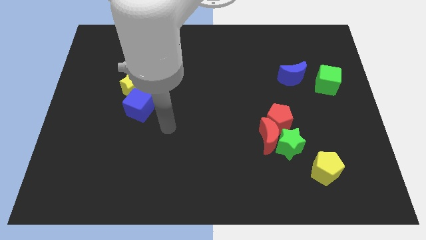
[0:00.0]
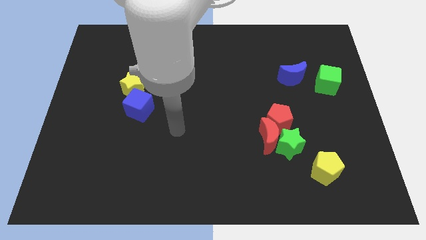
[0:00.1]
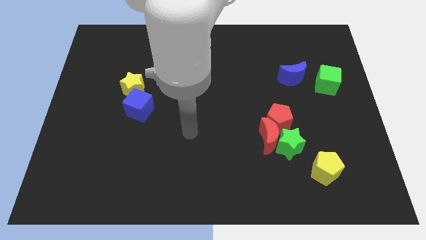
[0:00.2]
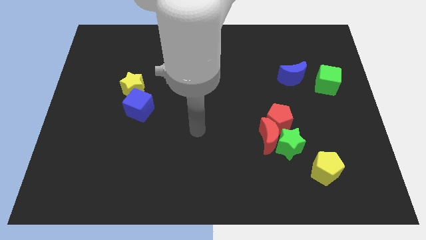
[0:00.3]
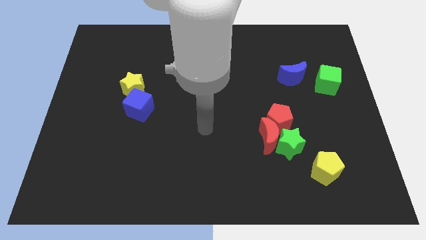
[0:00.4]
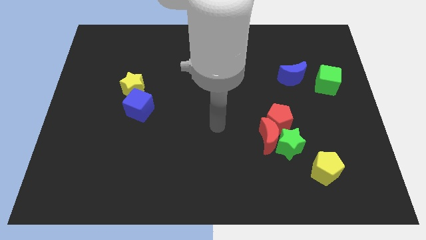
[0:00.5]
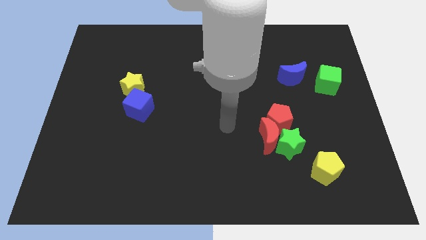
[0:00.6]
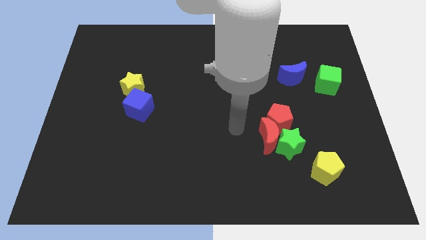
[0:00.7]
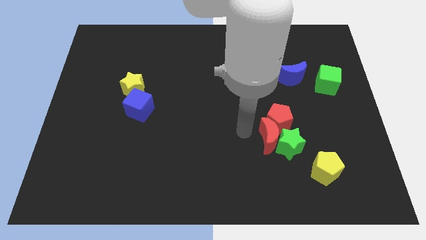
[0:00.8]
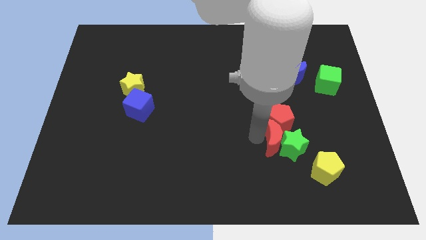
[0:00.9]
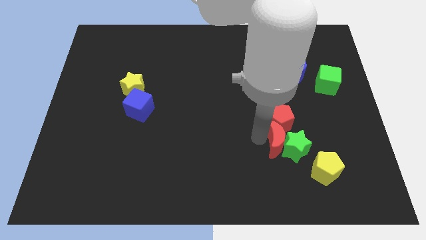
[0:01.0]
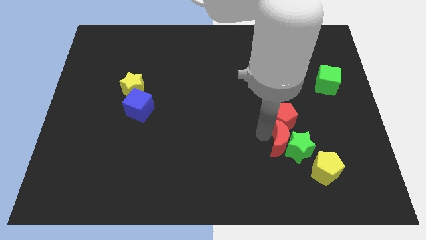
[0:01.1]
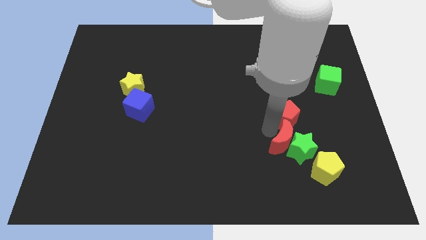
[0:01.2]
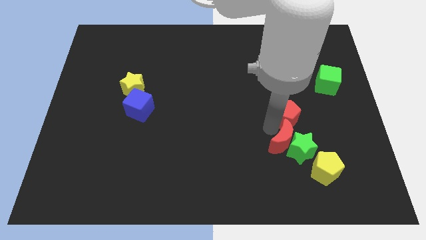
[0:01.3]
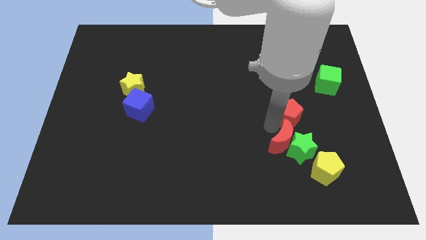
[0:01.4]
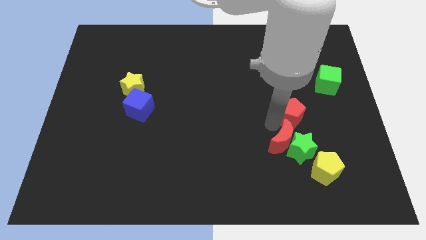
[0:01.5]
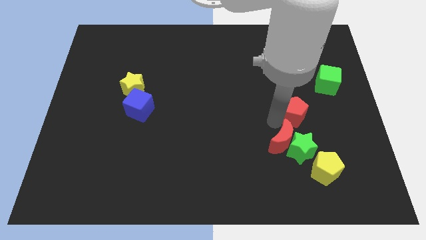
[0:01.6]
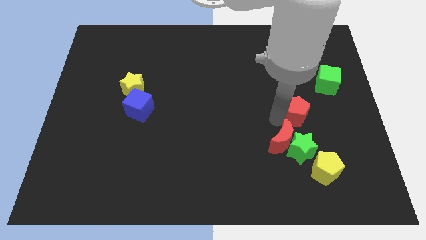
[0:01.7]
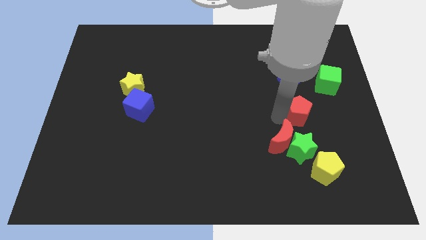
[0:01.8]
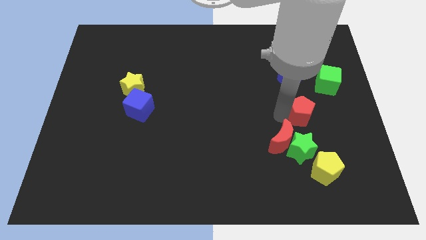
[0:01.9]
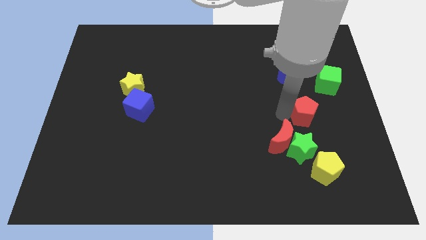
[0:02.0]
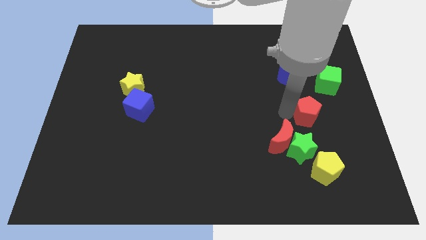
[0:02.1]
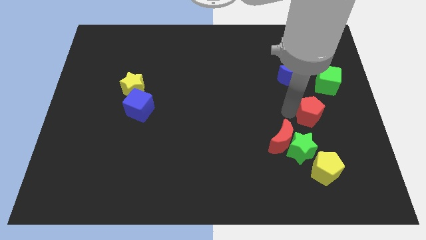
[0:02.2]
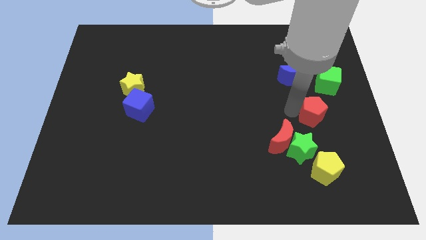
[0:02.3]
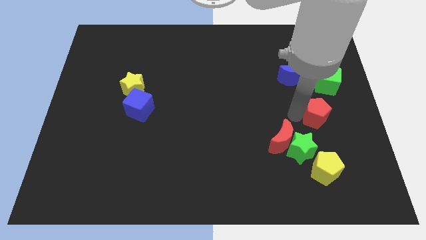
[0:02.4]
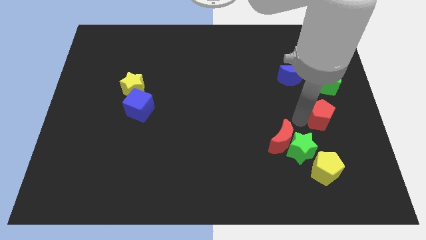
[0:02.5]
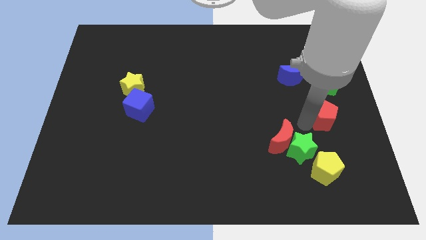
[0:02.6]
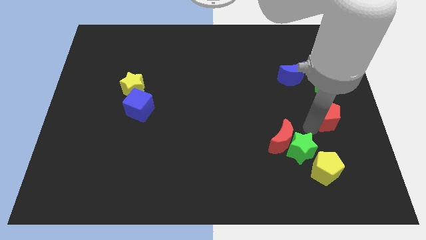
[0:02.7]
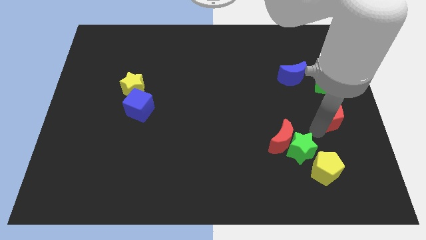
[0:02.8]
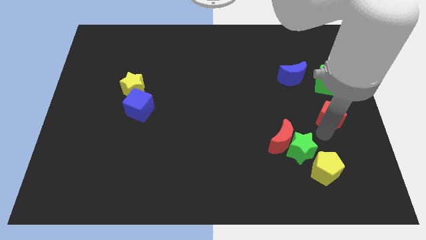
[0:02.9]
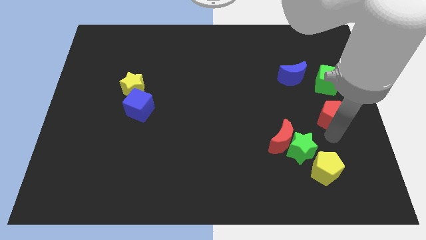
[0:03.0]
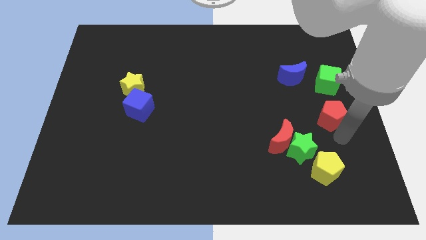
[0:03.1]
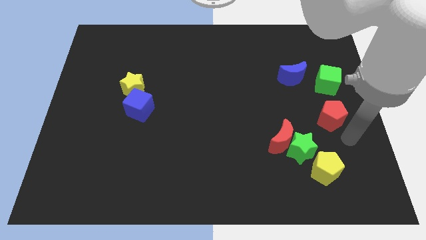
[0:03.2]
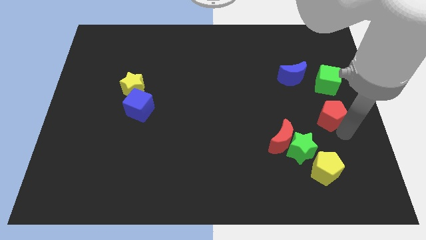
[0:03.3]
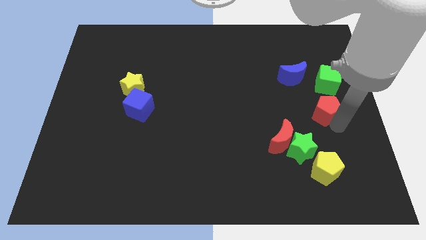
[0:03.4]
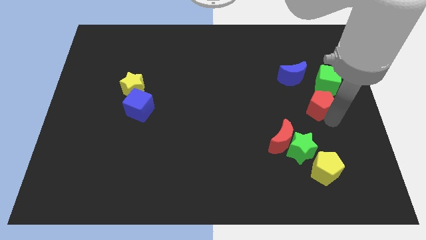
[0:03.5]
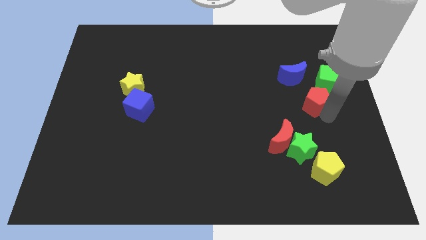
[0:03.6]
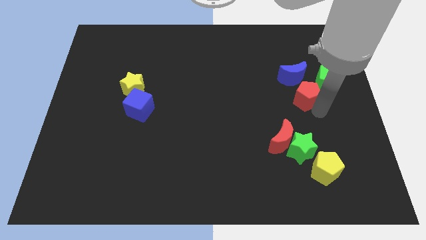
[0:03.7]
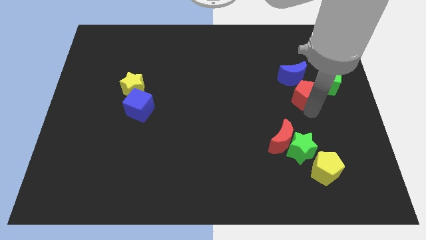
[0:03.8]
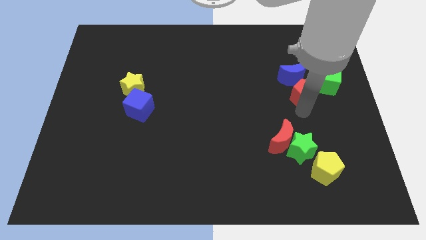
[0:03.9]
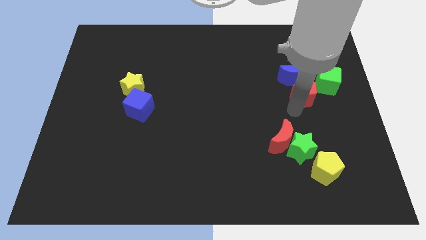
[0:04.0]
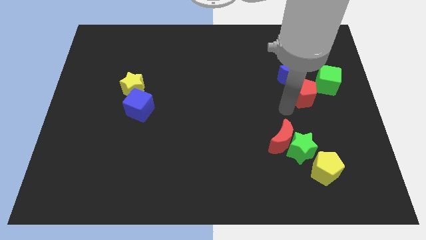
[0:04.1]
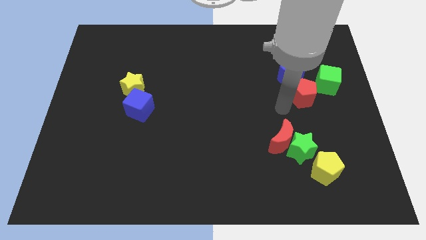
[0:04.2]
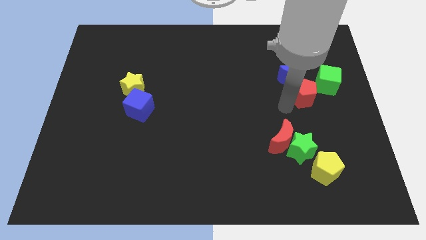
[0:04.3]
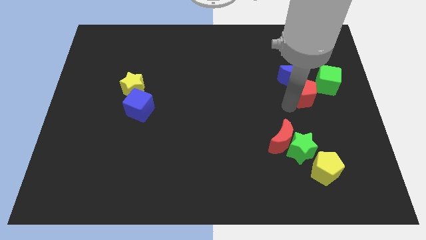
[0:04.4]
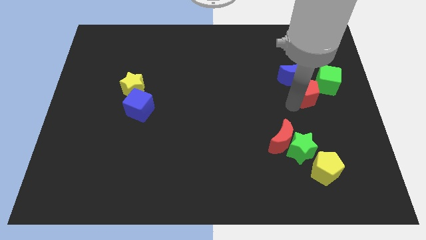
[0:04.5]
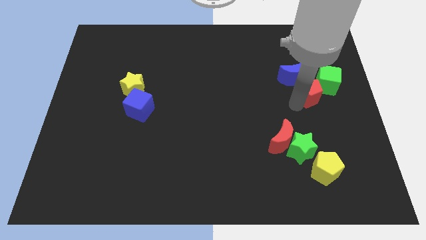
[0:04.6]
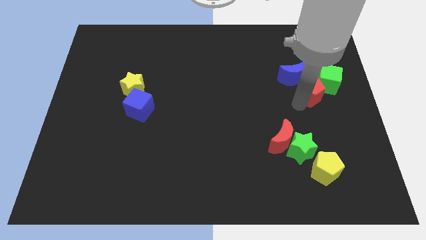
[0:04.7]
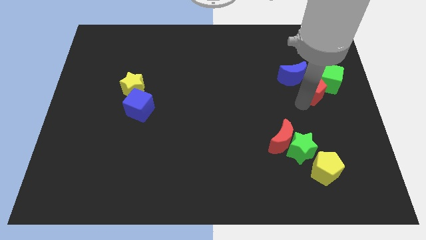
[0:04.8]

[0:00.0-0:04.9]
put the red pentagon next to the green cube

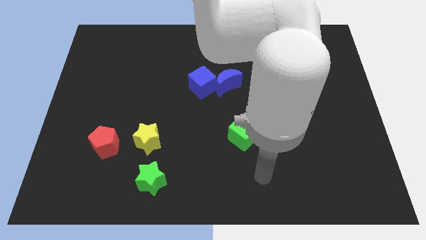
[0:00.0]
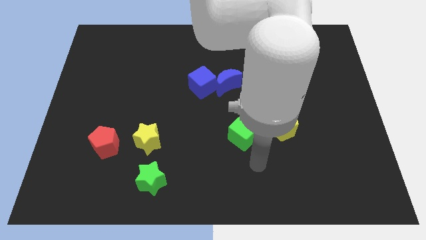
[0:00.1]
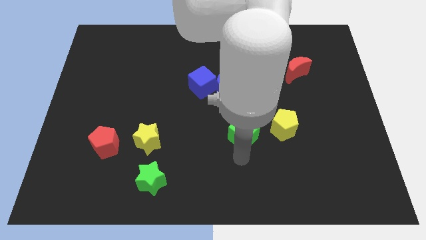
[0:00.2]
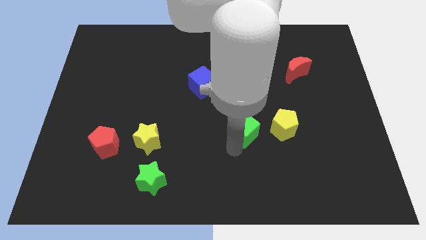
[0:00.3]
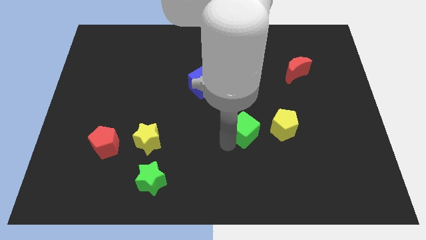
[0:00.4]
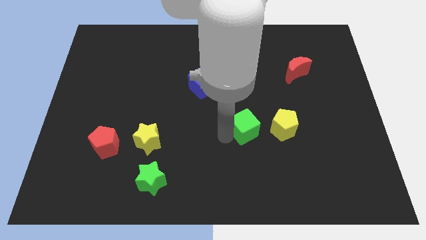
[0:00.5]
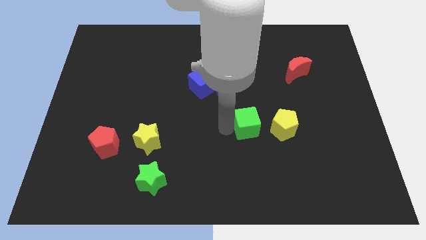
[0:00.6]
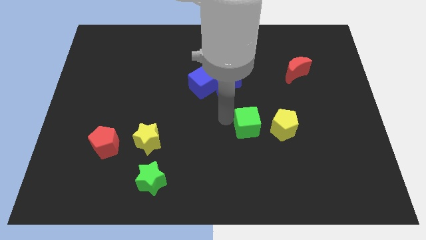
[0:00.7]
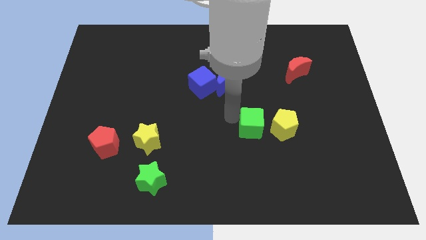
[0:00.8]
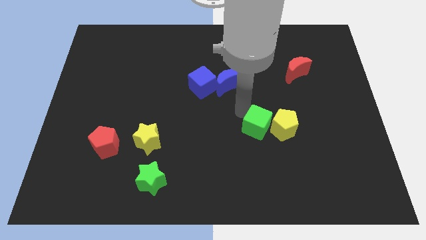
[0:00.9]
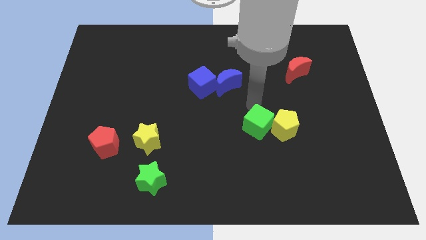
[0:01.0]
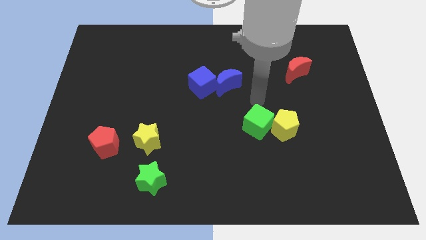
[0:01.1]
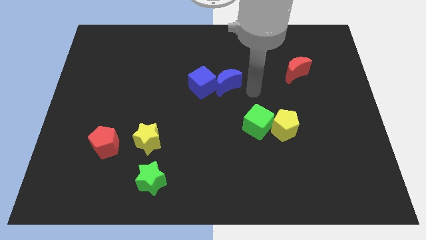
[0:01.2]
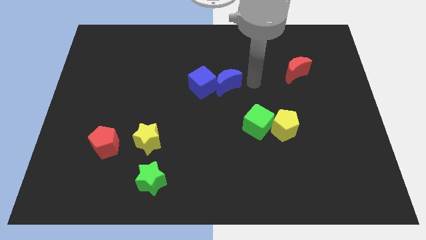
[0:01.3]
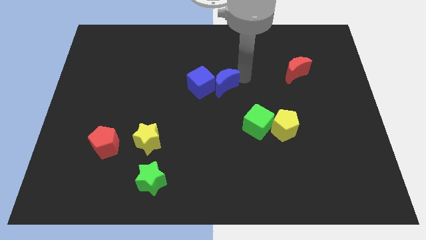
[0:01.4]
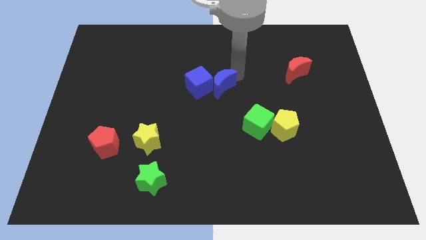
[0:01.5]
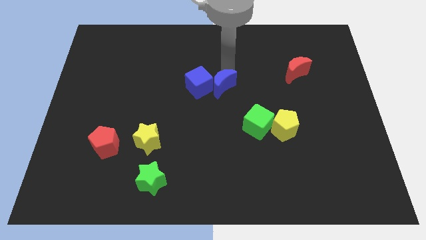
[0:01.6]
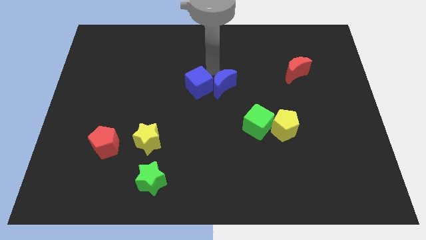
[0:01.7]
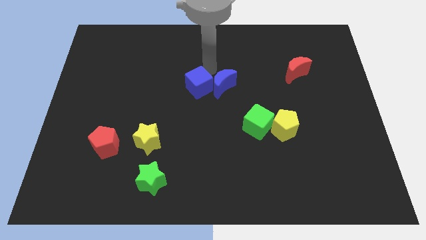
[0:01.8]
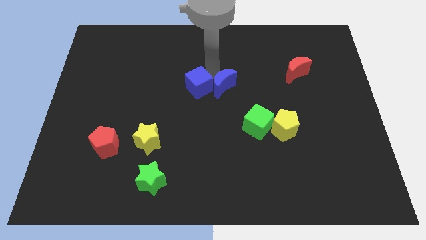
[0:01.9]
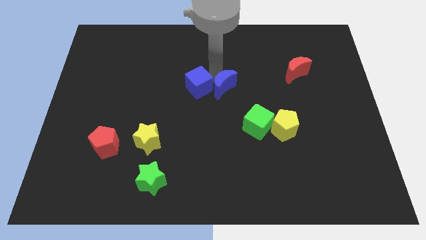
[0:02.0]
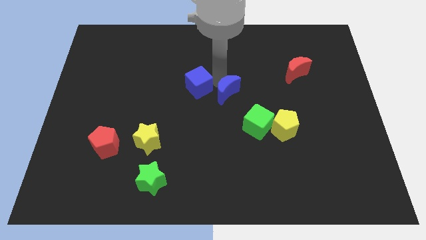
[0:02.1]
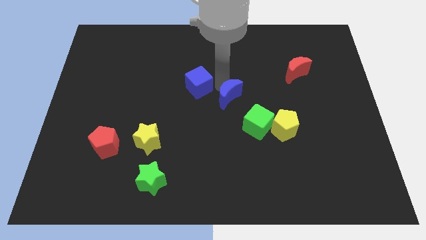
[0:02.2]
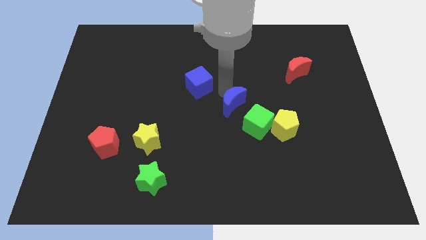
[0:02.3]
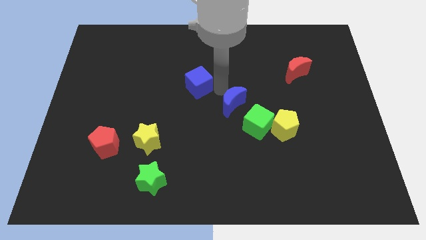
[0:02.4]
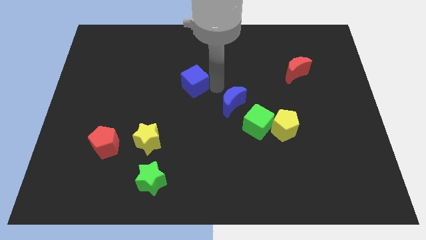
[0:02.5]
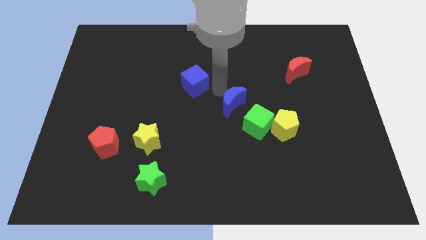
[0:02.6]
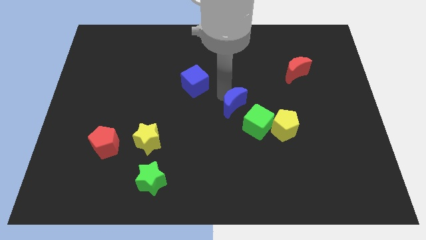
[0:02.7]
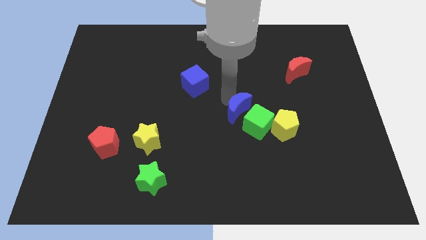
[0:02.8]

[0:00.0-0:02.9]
slide the blue moon to the green cube
